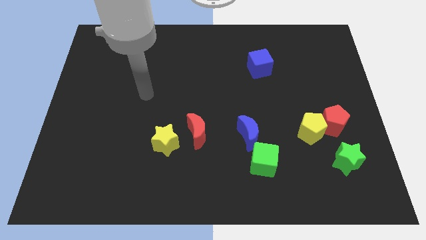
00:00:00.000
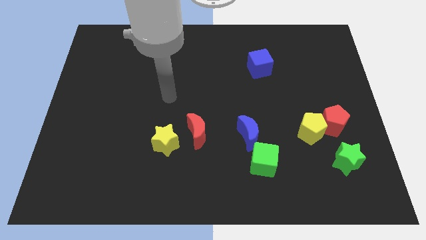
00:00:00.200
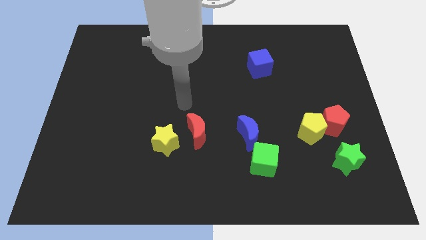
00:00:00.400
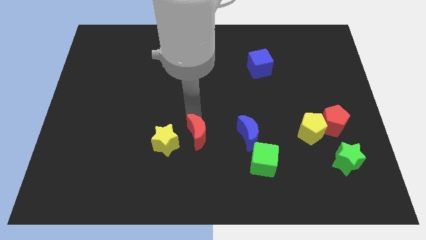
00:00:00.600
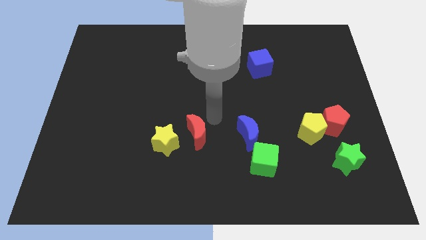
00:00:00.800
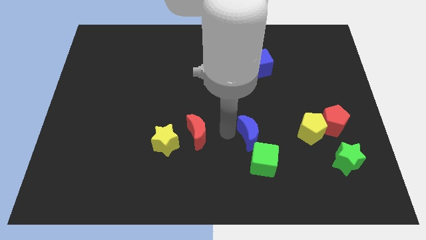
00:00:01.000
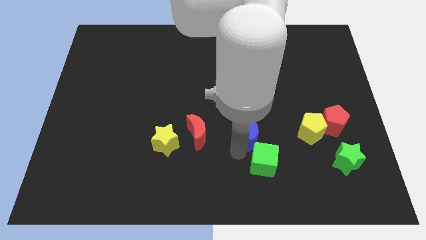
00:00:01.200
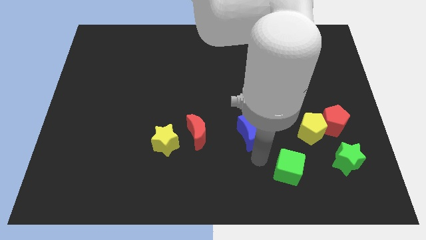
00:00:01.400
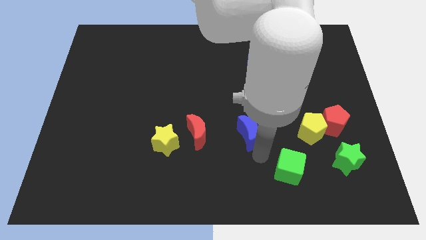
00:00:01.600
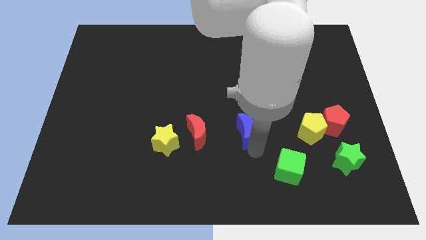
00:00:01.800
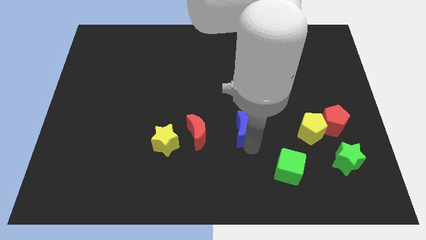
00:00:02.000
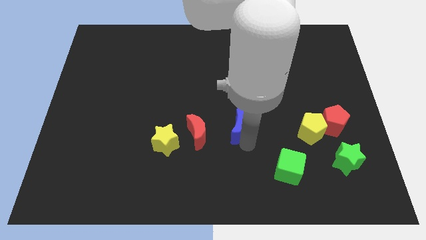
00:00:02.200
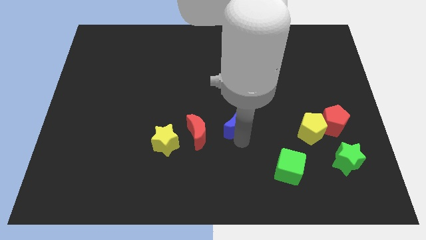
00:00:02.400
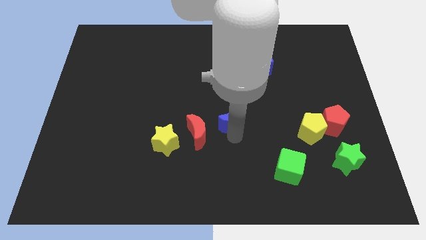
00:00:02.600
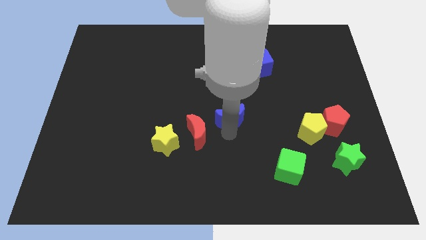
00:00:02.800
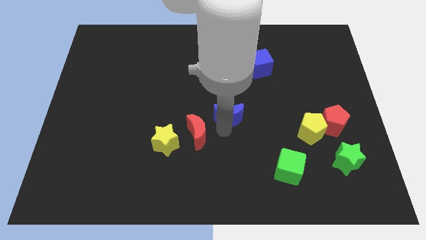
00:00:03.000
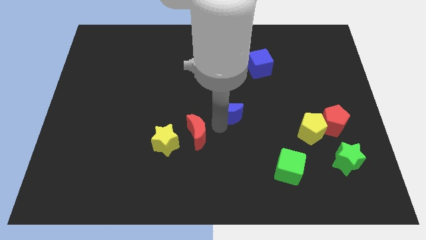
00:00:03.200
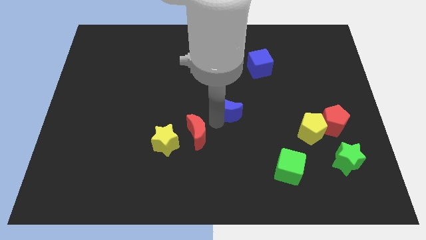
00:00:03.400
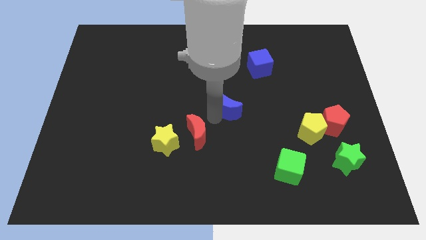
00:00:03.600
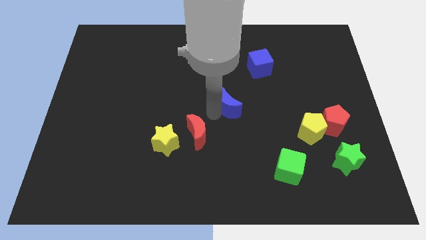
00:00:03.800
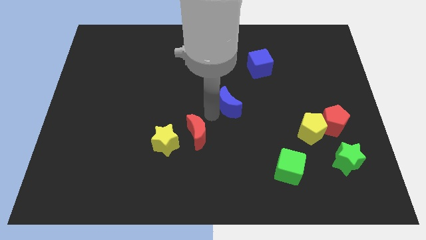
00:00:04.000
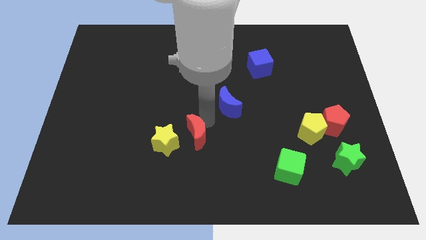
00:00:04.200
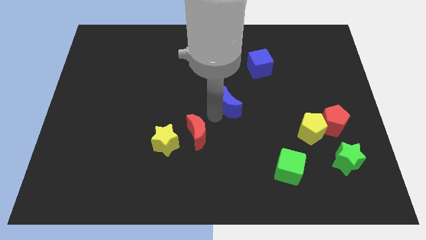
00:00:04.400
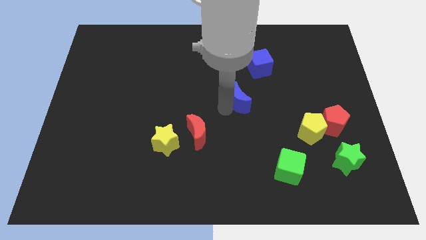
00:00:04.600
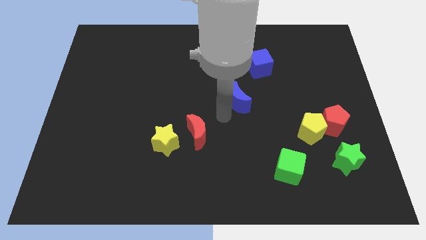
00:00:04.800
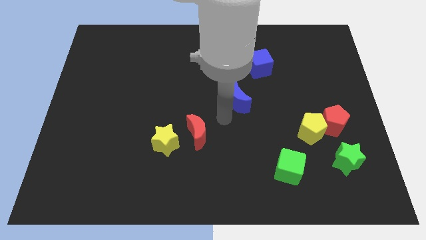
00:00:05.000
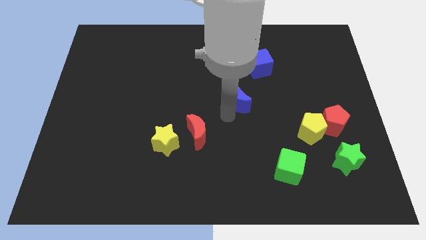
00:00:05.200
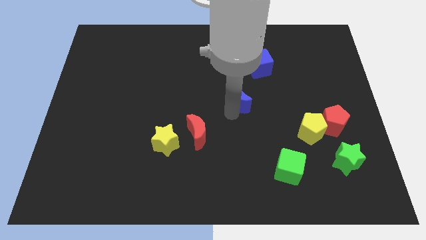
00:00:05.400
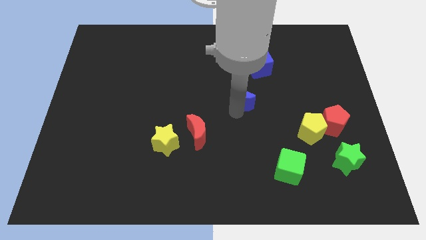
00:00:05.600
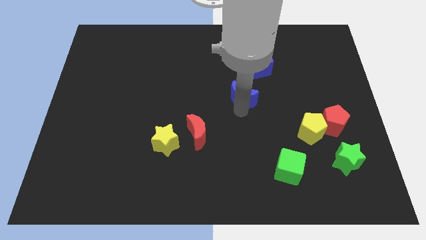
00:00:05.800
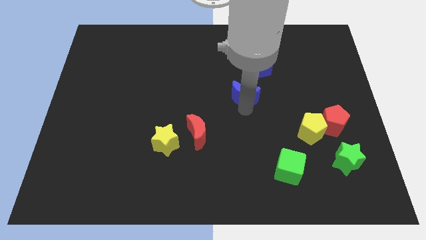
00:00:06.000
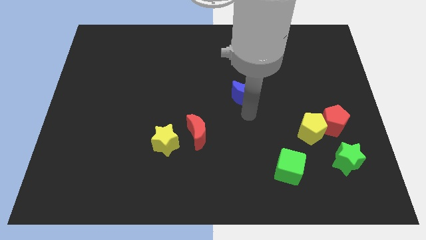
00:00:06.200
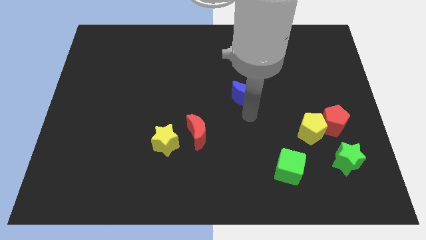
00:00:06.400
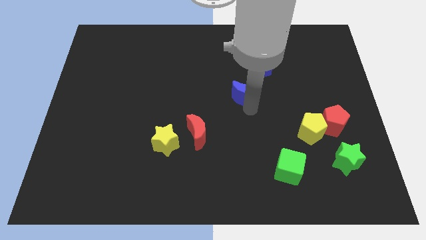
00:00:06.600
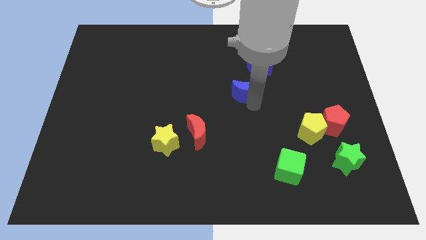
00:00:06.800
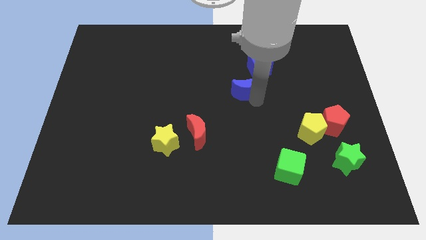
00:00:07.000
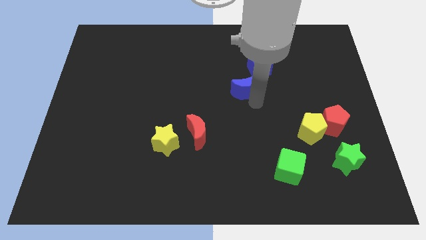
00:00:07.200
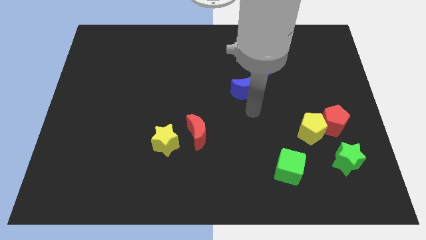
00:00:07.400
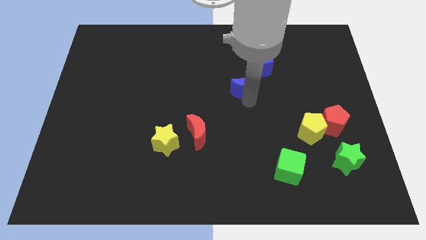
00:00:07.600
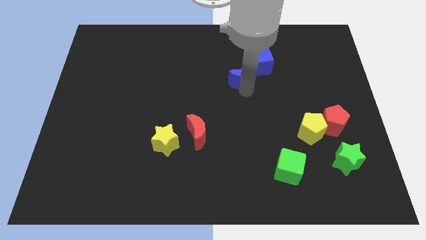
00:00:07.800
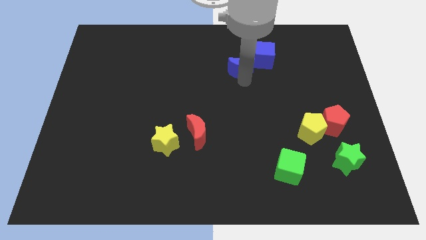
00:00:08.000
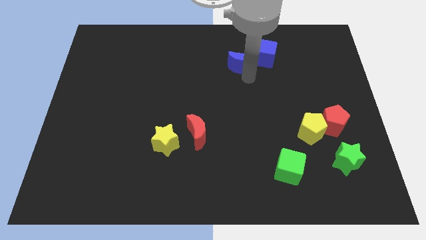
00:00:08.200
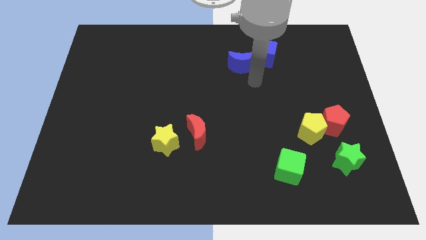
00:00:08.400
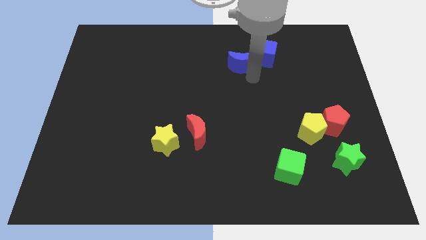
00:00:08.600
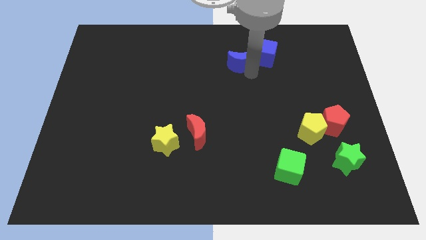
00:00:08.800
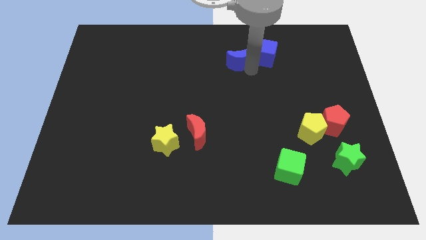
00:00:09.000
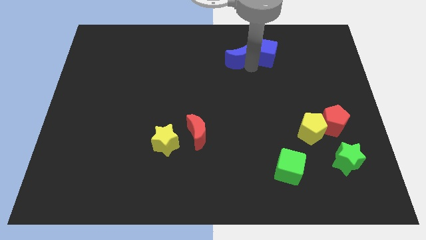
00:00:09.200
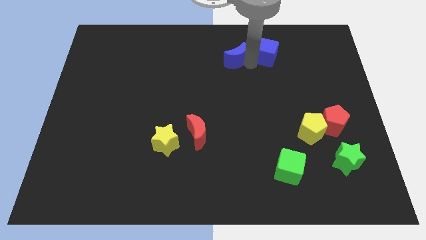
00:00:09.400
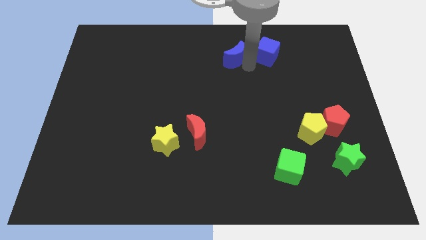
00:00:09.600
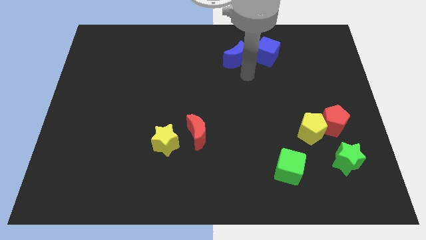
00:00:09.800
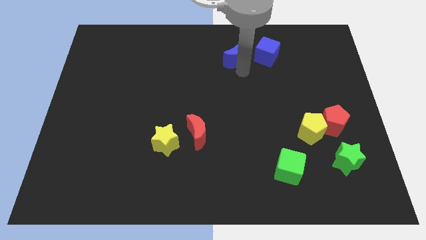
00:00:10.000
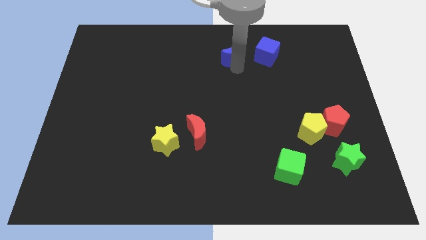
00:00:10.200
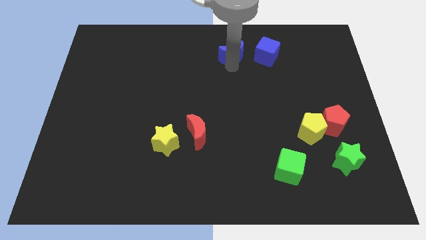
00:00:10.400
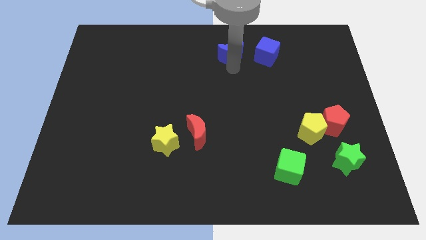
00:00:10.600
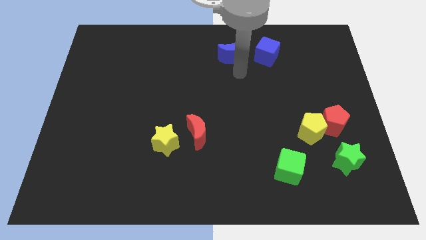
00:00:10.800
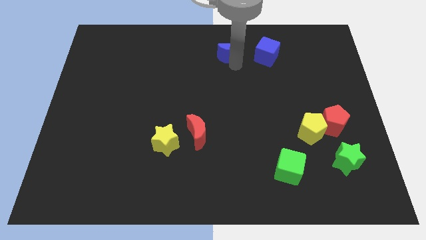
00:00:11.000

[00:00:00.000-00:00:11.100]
push the blue moon to the top
